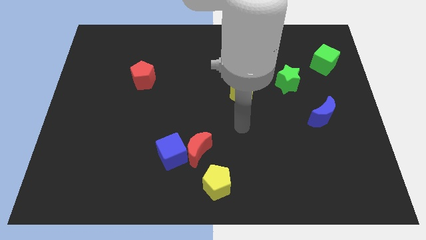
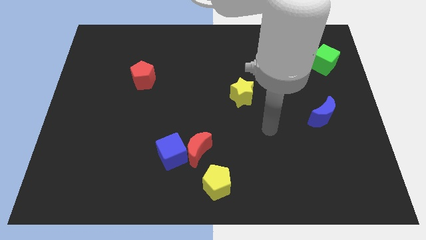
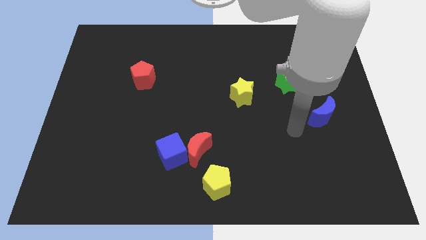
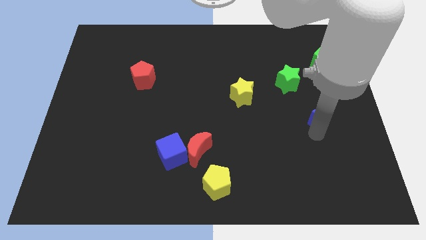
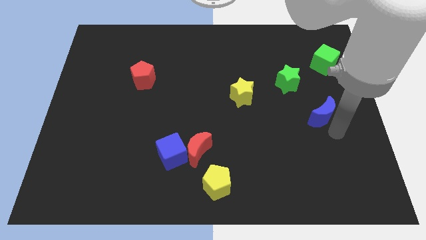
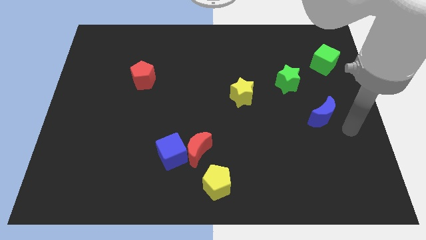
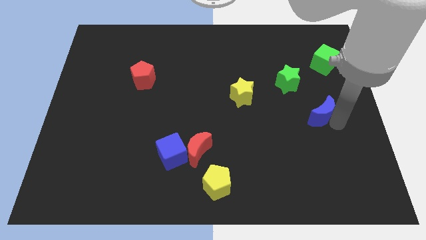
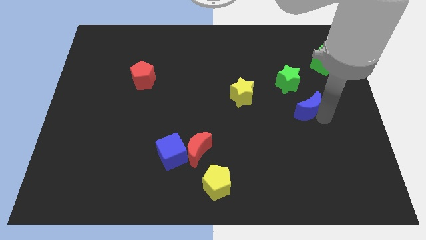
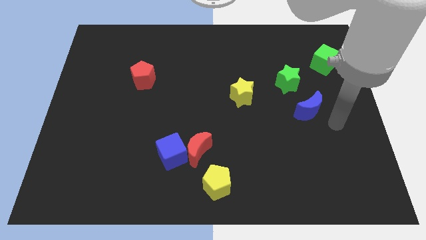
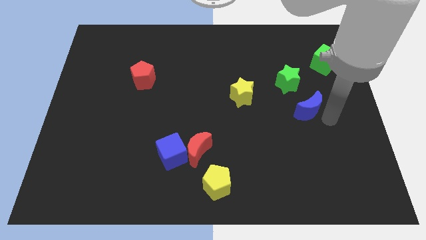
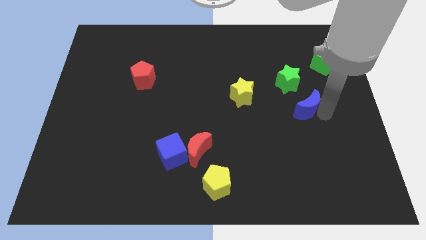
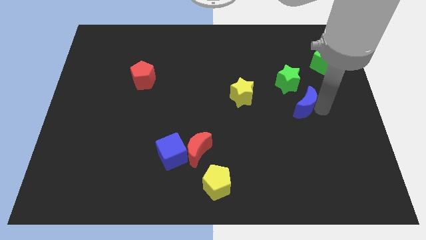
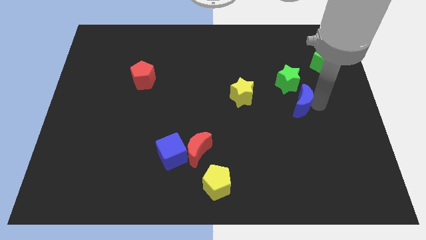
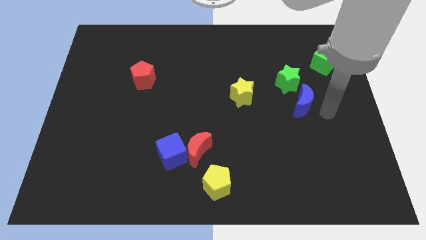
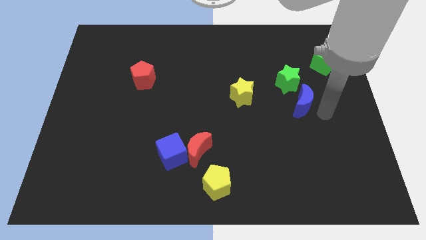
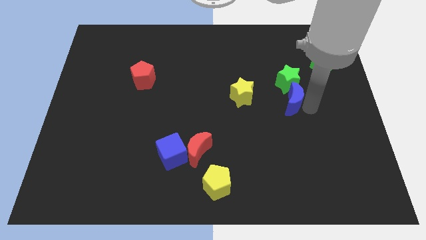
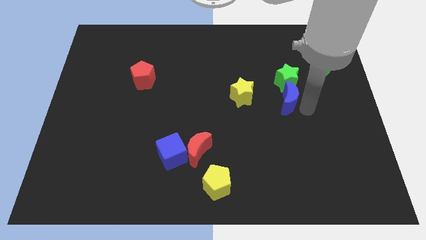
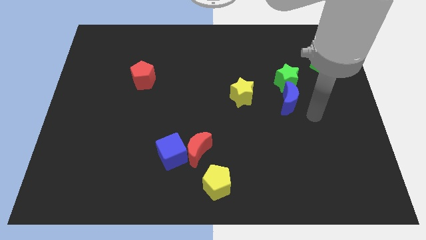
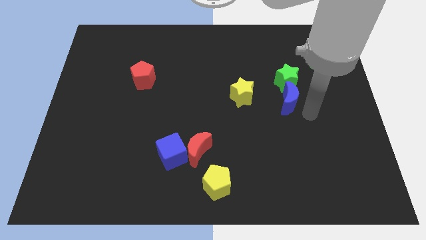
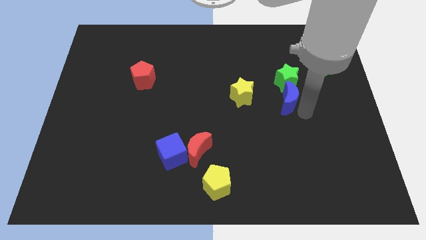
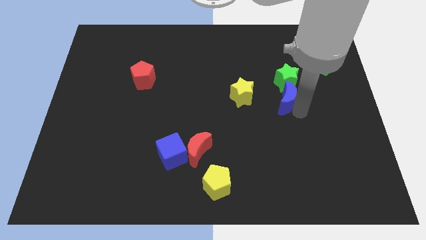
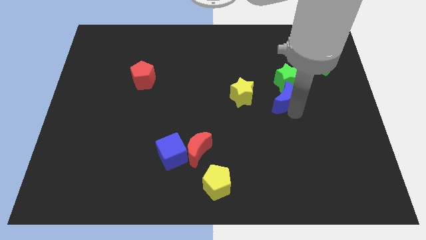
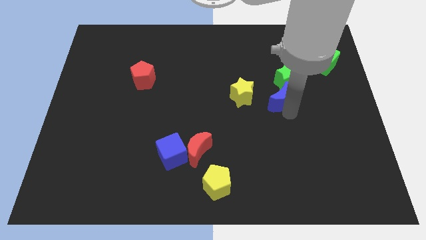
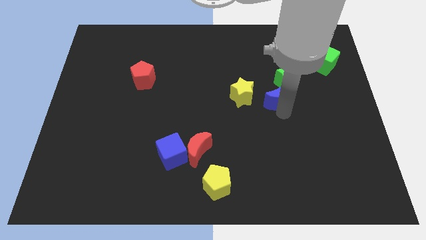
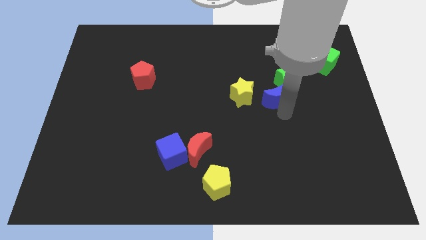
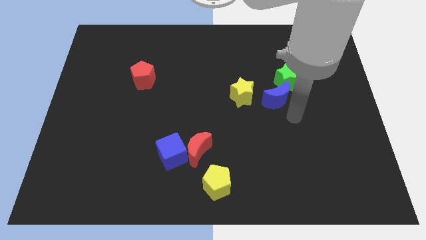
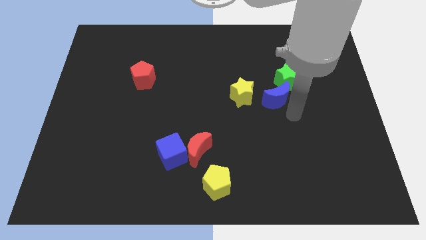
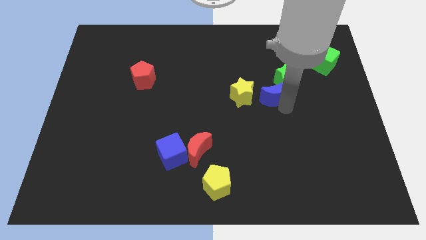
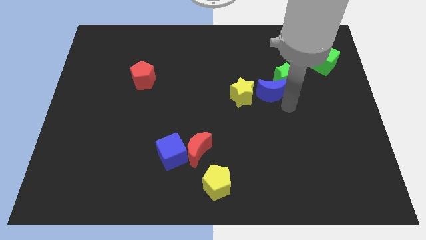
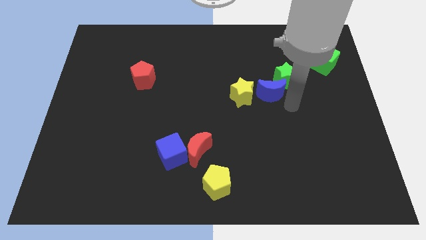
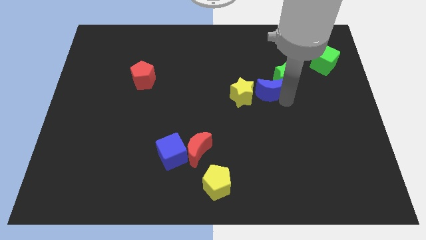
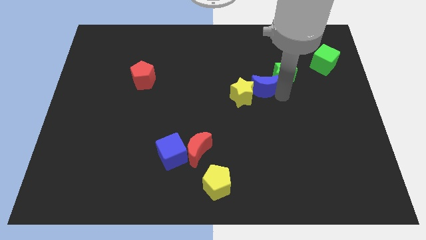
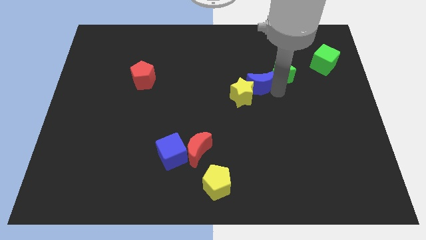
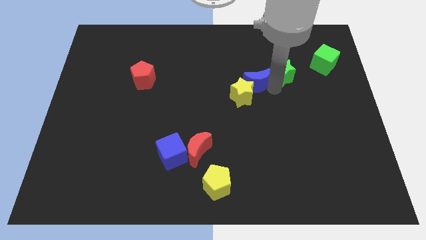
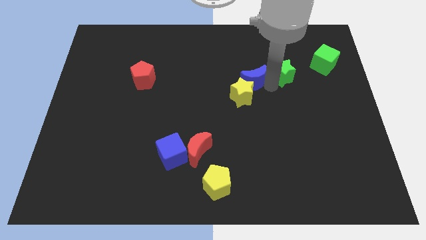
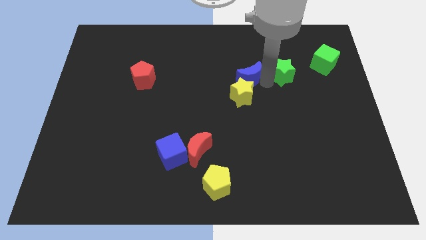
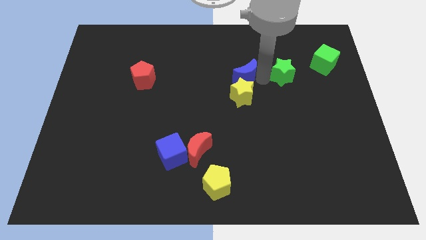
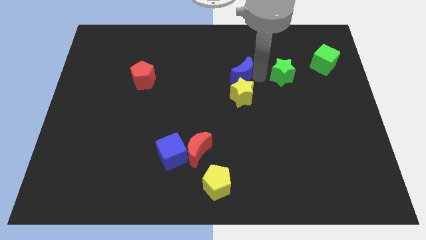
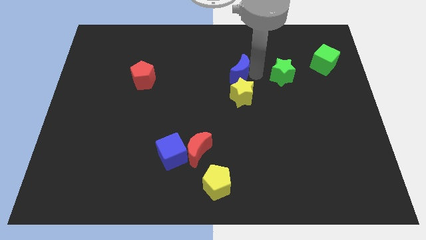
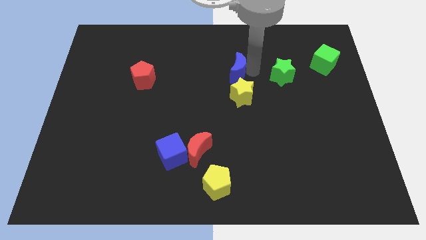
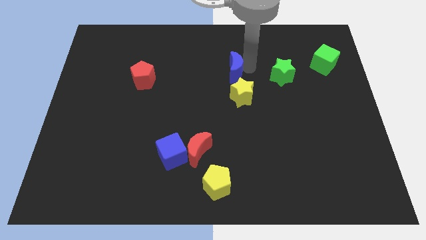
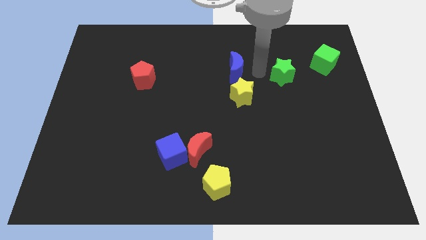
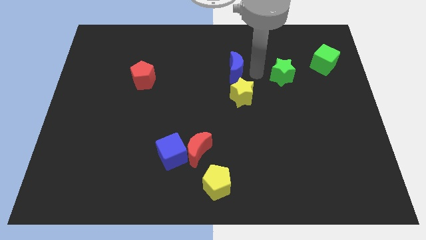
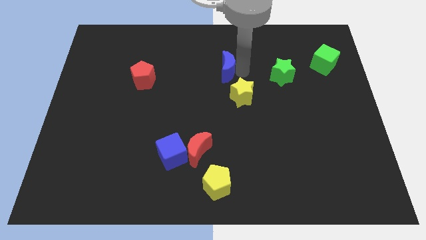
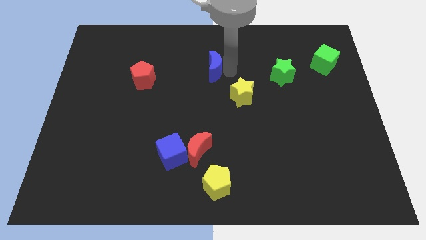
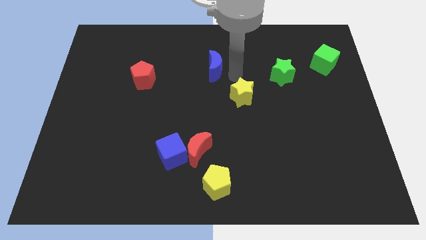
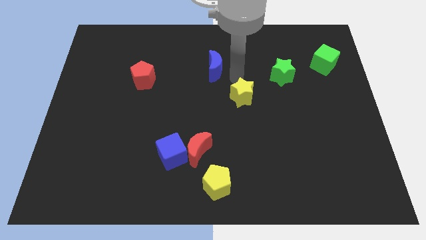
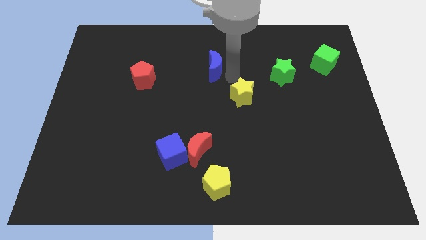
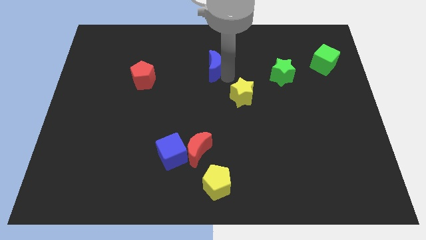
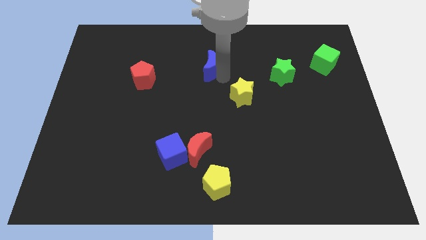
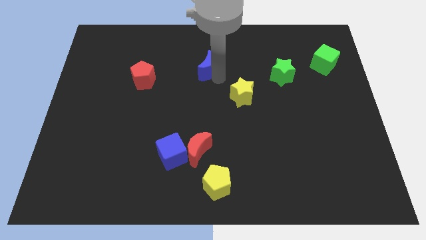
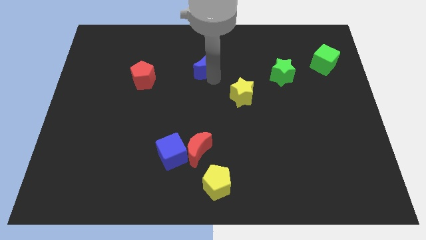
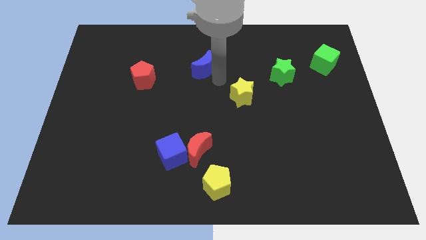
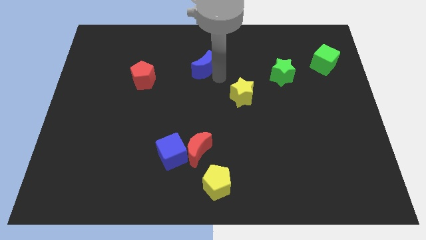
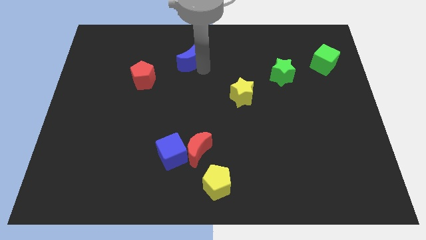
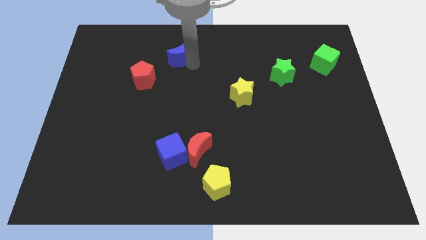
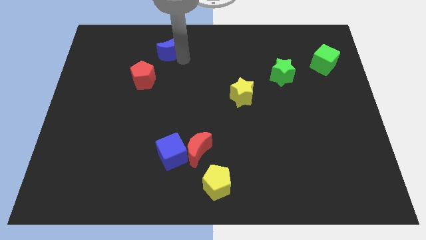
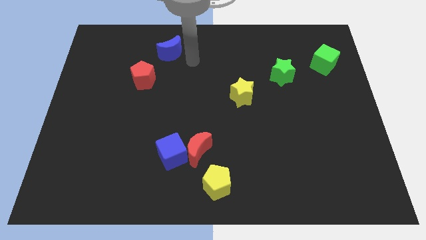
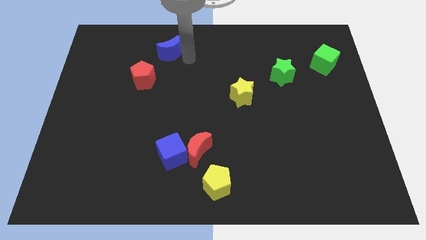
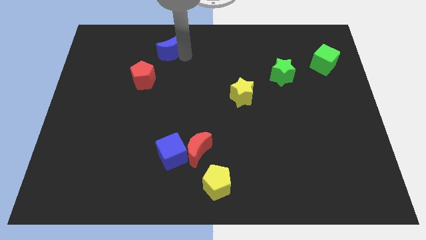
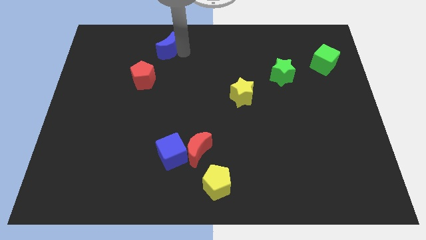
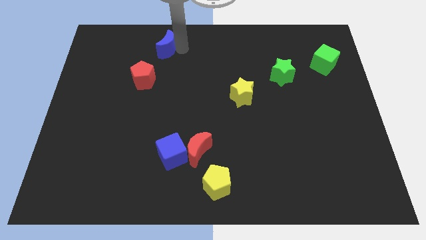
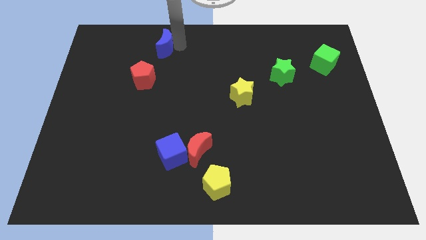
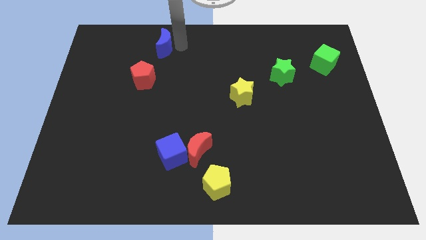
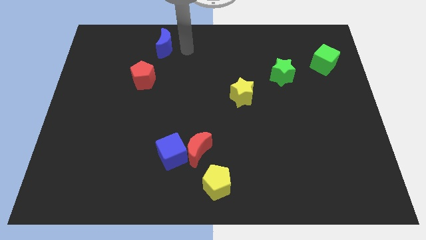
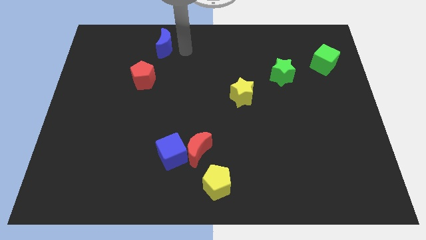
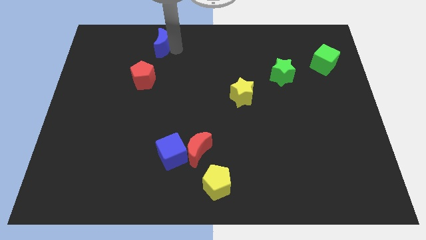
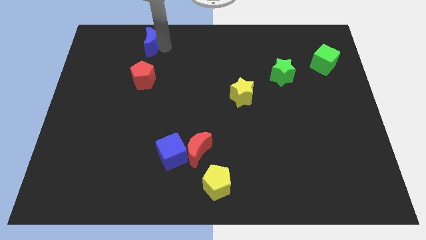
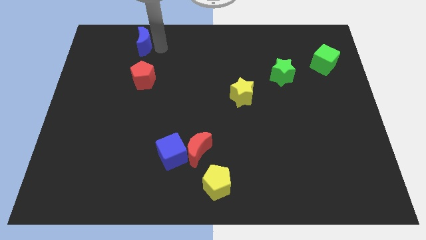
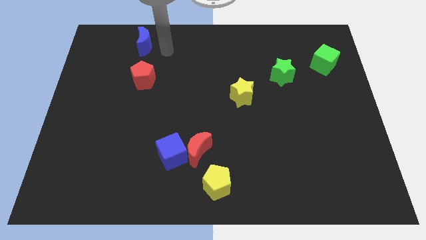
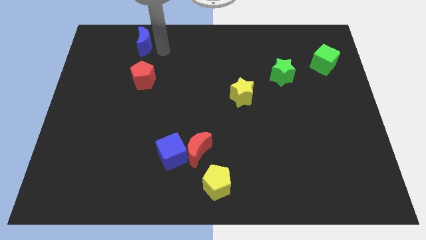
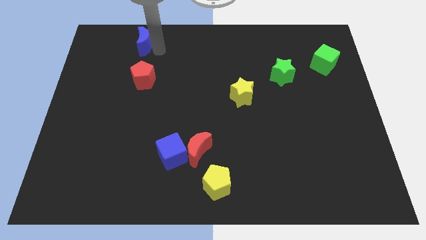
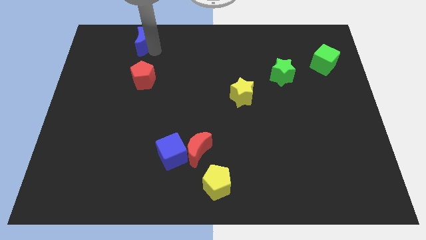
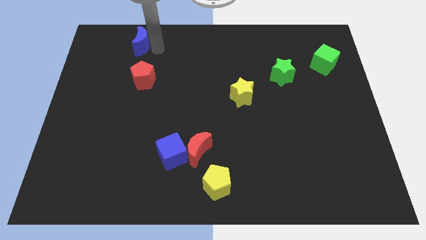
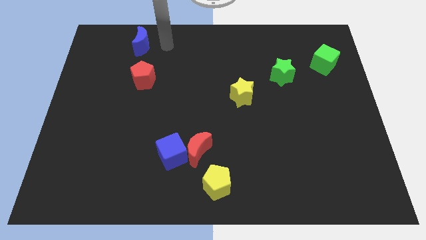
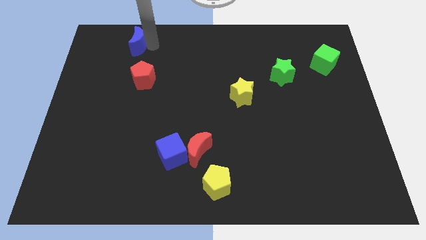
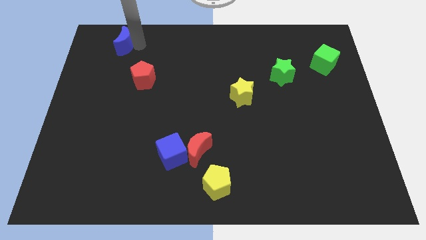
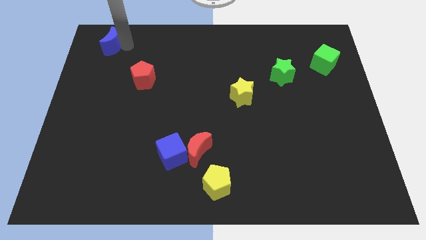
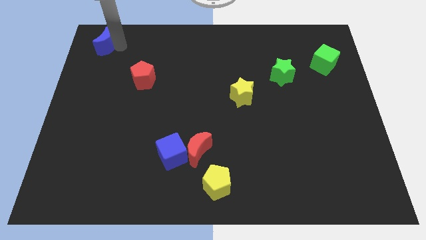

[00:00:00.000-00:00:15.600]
slide the blue moon to the top left
